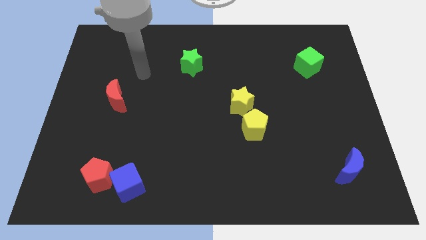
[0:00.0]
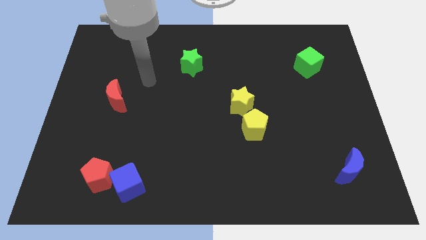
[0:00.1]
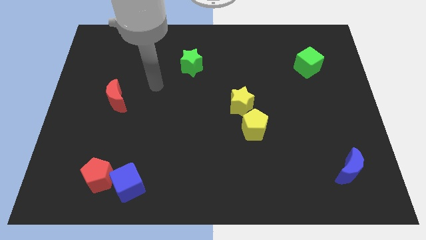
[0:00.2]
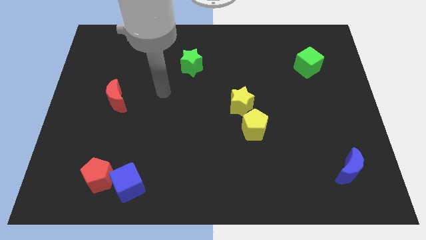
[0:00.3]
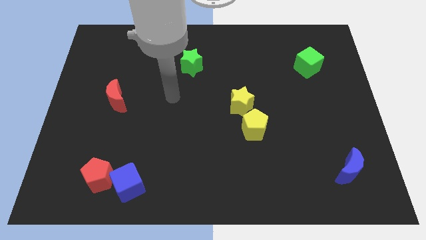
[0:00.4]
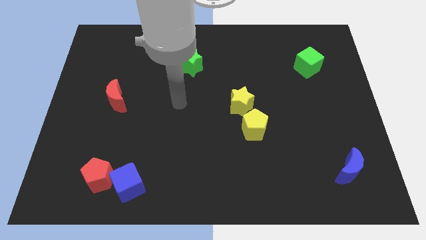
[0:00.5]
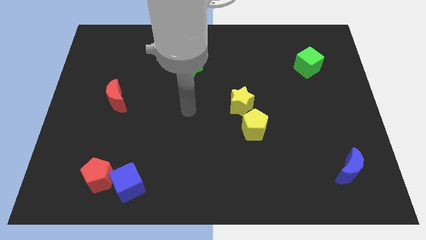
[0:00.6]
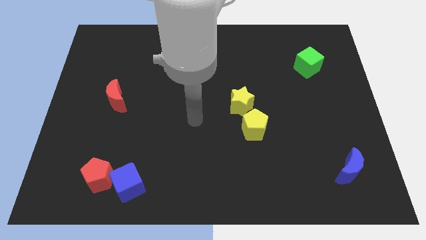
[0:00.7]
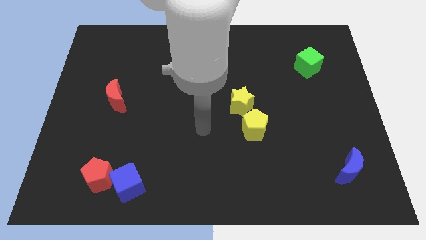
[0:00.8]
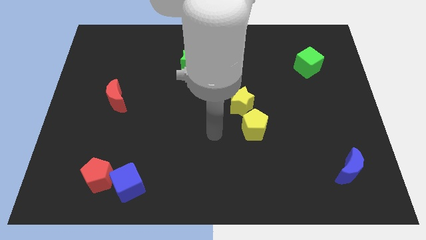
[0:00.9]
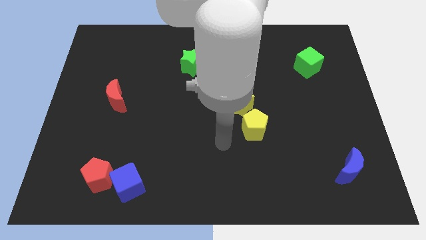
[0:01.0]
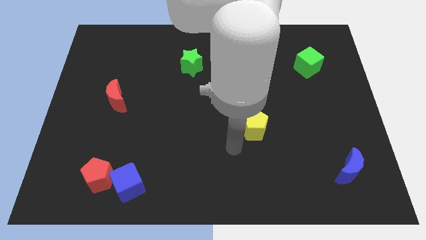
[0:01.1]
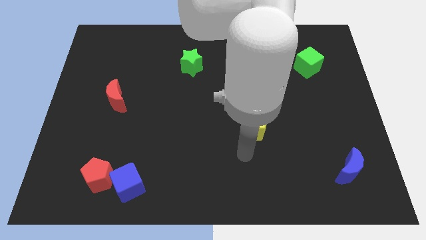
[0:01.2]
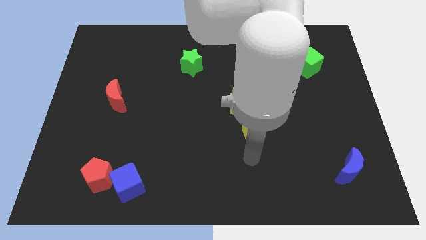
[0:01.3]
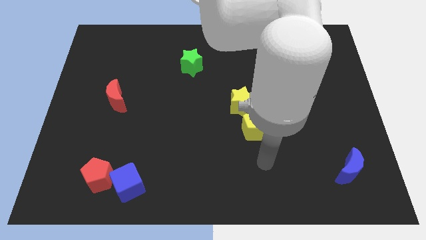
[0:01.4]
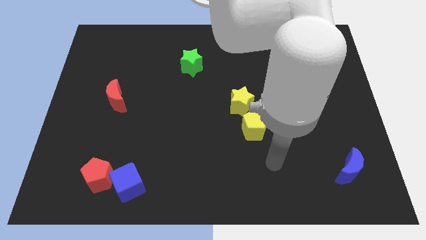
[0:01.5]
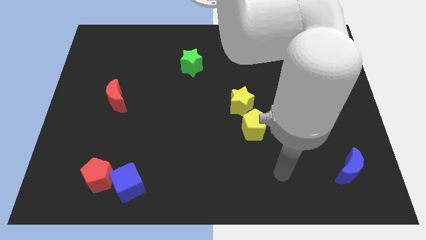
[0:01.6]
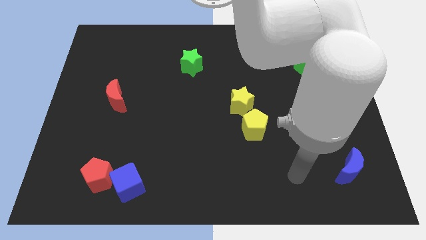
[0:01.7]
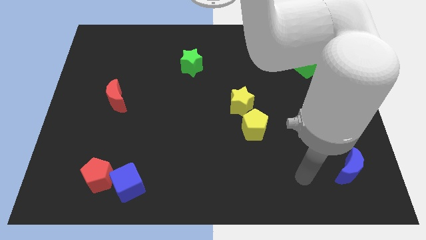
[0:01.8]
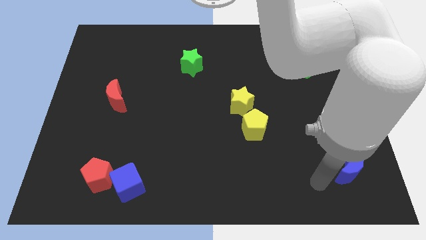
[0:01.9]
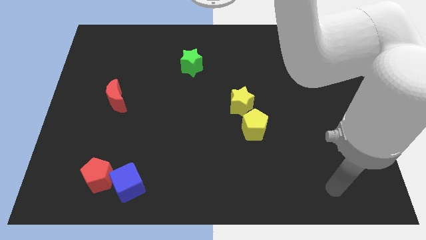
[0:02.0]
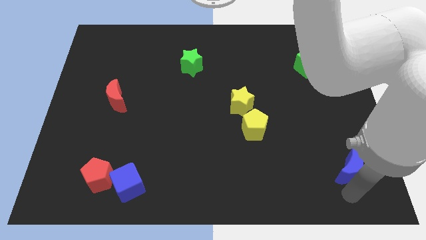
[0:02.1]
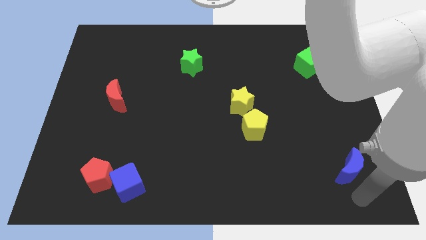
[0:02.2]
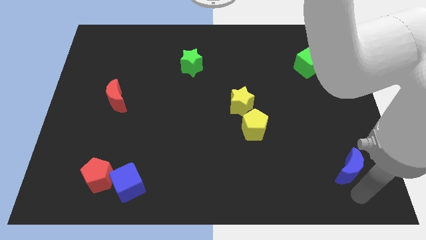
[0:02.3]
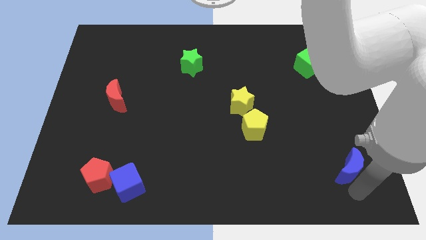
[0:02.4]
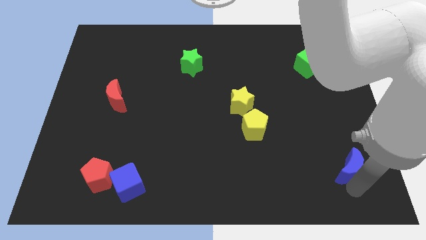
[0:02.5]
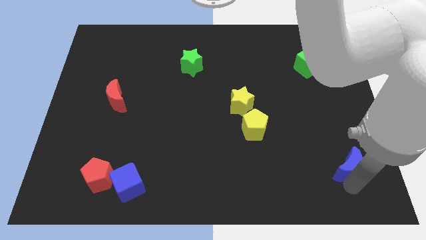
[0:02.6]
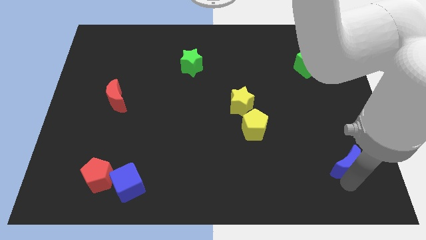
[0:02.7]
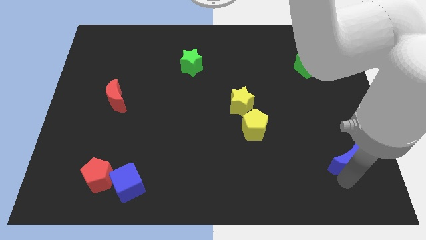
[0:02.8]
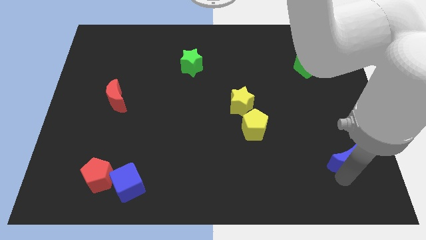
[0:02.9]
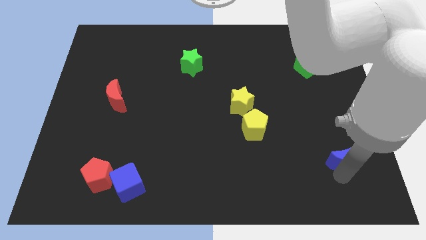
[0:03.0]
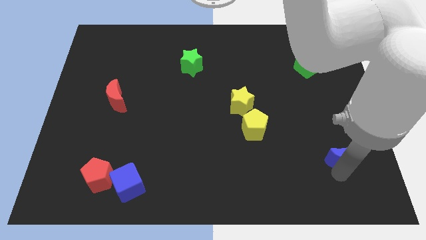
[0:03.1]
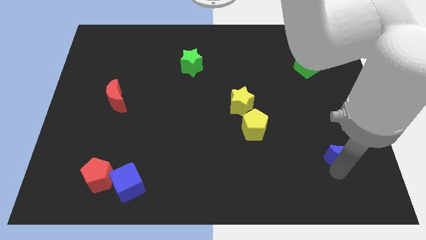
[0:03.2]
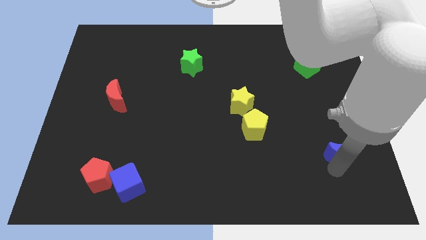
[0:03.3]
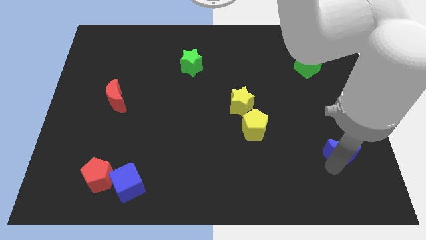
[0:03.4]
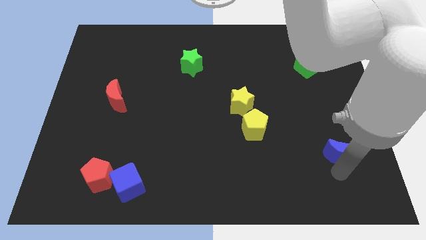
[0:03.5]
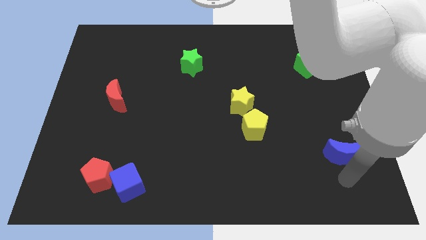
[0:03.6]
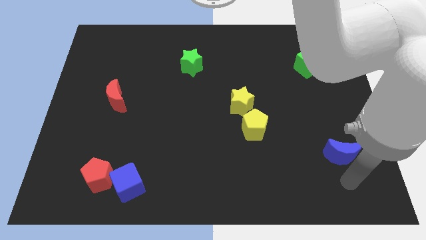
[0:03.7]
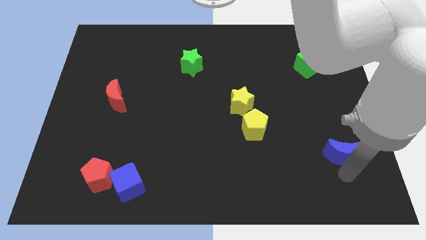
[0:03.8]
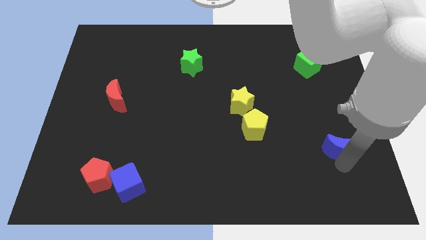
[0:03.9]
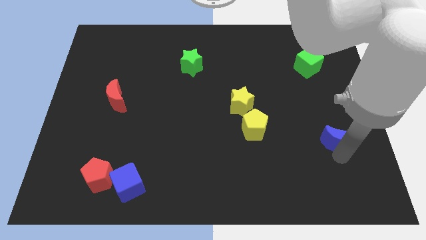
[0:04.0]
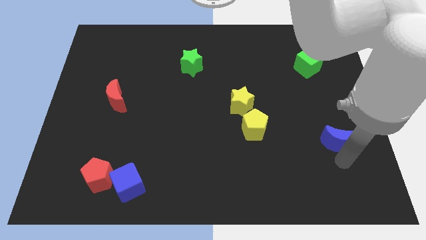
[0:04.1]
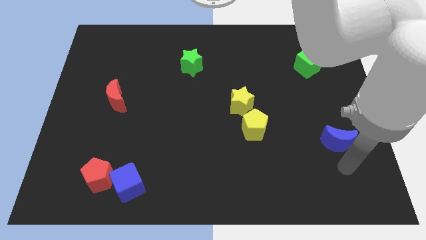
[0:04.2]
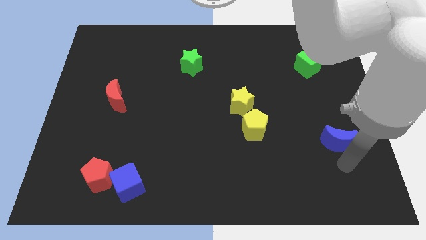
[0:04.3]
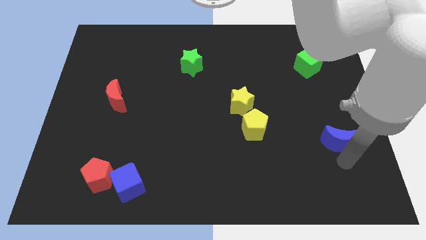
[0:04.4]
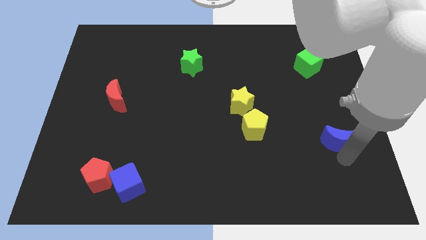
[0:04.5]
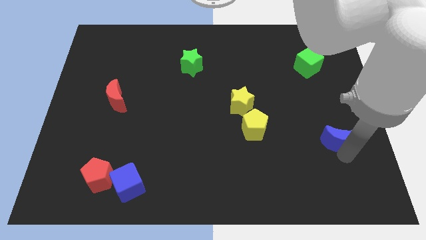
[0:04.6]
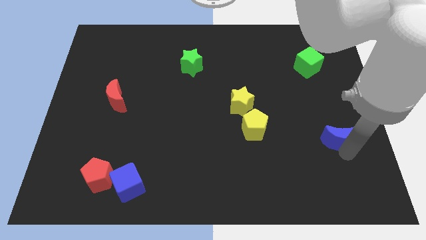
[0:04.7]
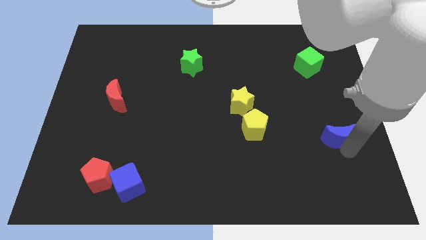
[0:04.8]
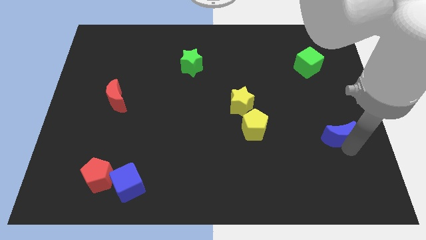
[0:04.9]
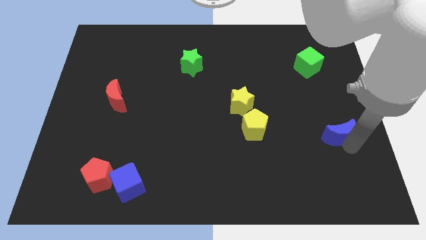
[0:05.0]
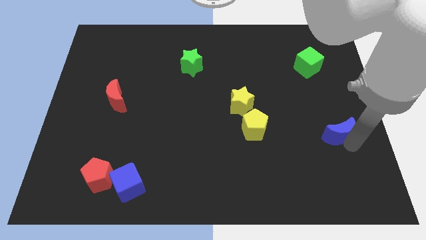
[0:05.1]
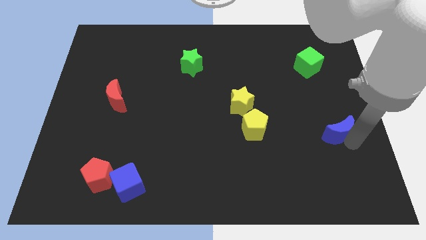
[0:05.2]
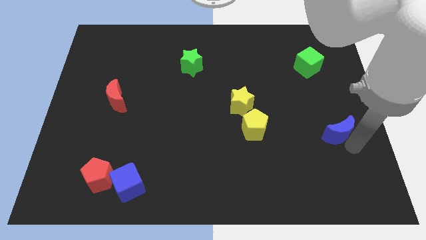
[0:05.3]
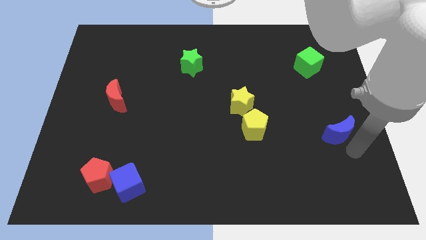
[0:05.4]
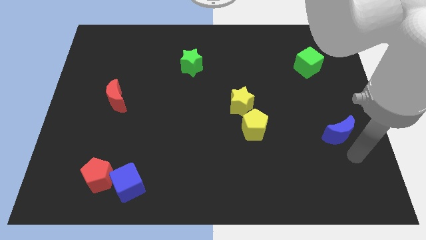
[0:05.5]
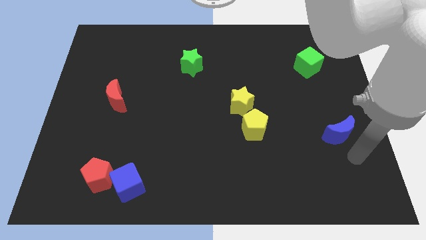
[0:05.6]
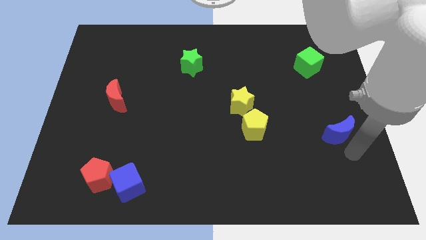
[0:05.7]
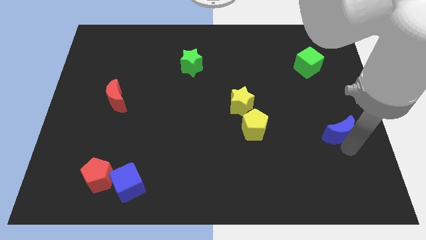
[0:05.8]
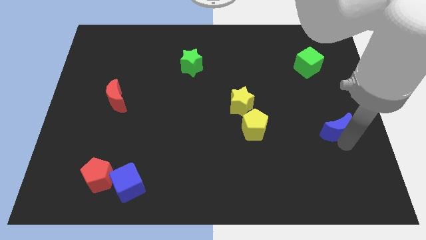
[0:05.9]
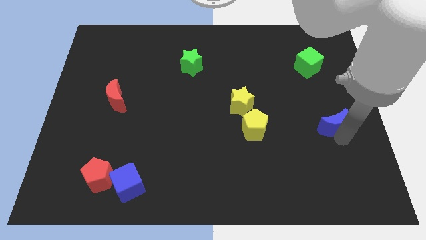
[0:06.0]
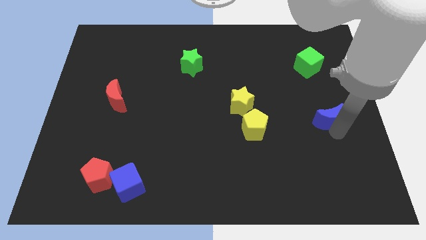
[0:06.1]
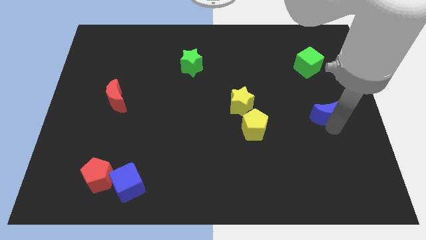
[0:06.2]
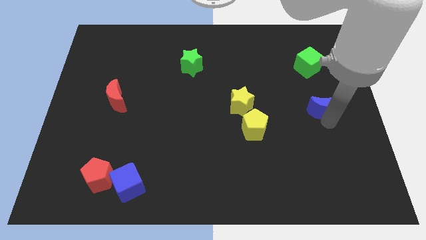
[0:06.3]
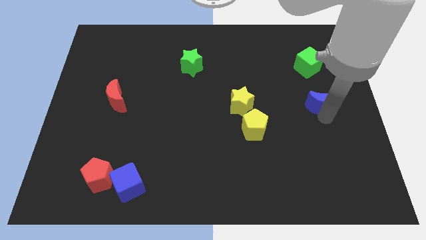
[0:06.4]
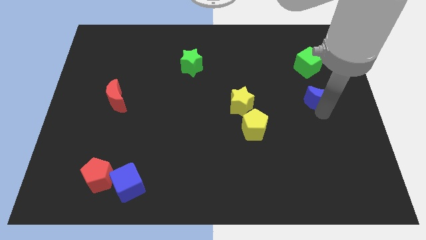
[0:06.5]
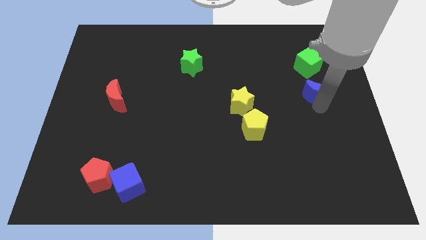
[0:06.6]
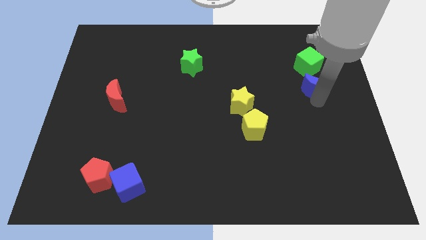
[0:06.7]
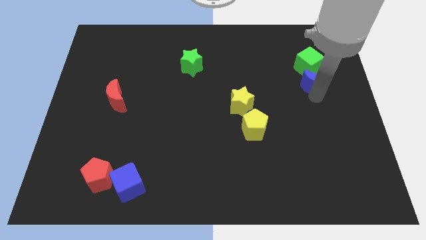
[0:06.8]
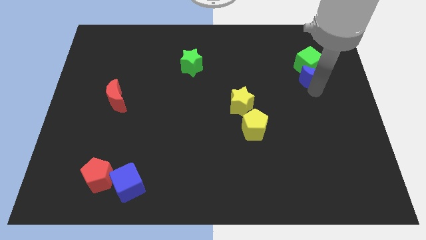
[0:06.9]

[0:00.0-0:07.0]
put the blue moon next to the green cube
